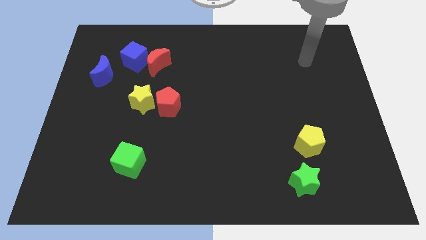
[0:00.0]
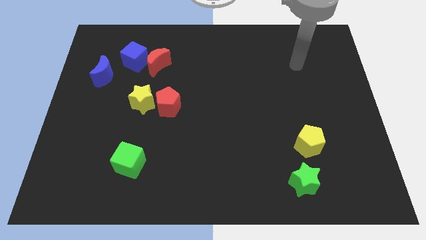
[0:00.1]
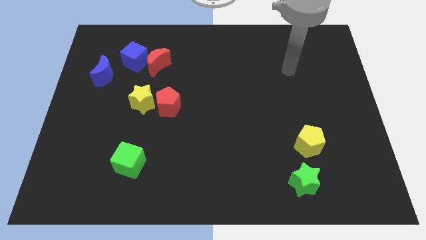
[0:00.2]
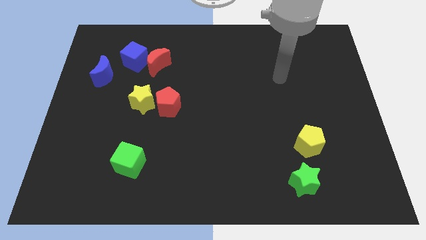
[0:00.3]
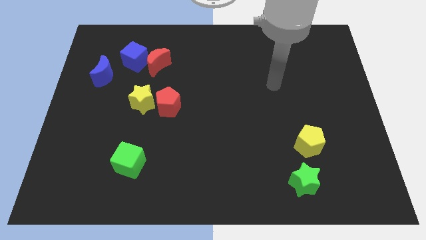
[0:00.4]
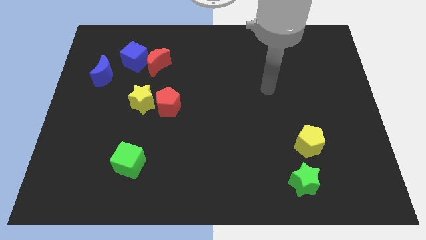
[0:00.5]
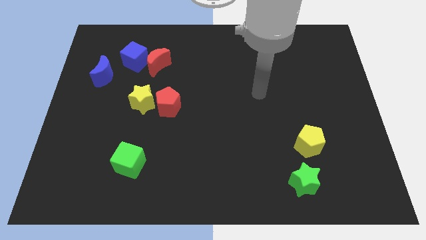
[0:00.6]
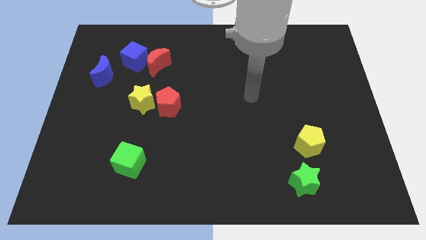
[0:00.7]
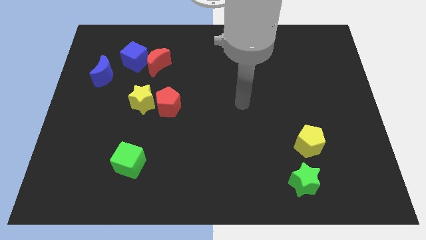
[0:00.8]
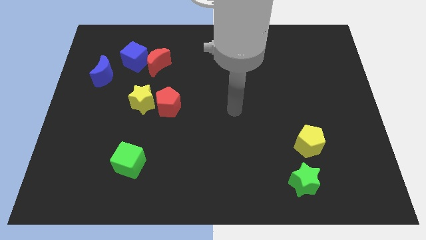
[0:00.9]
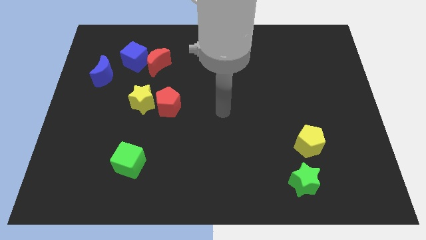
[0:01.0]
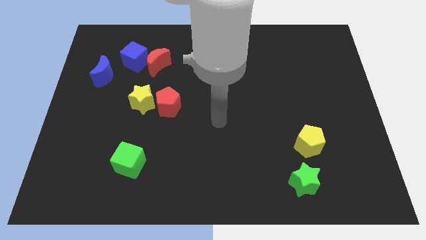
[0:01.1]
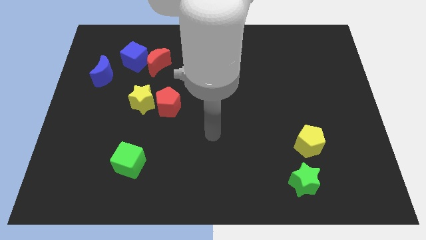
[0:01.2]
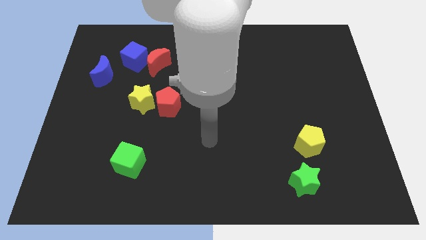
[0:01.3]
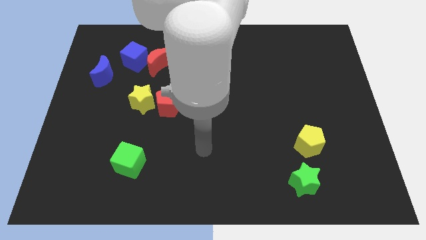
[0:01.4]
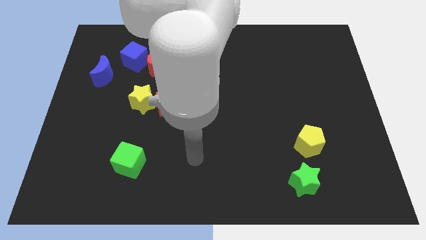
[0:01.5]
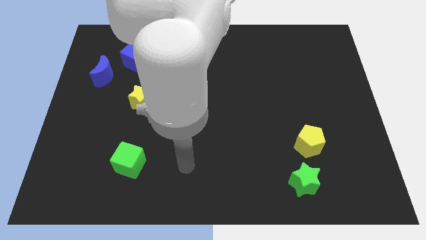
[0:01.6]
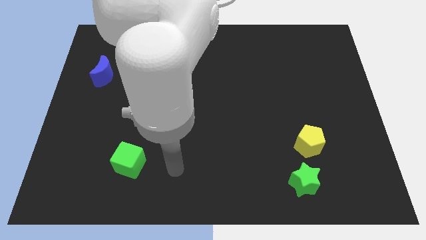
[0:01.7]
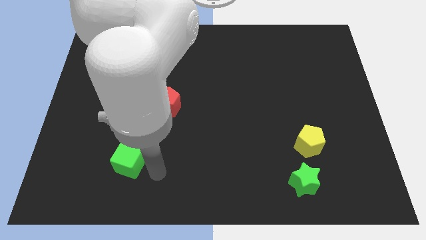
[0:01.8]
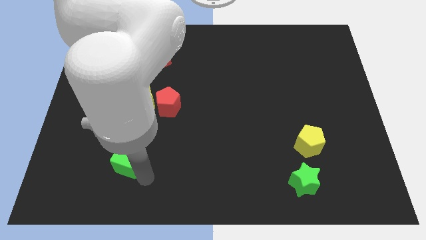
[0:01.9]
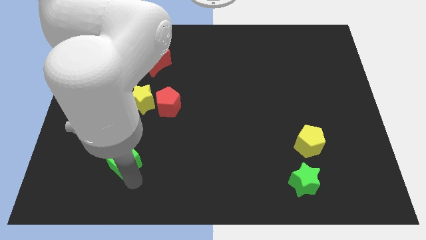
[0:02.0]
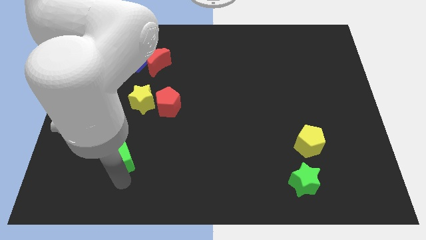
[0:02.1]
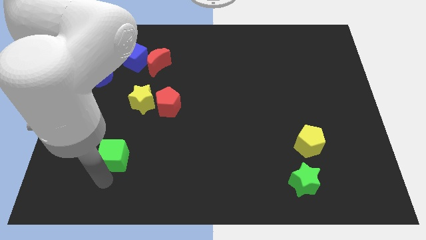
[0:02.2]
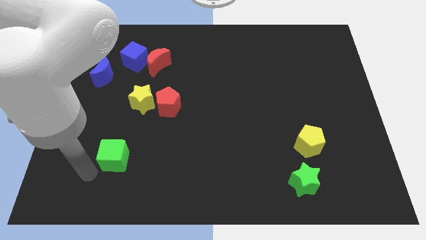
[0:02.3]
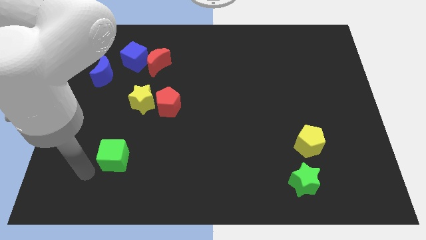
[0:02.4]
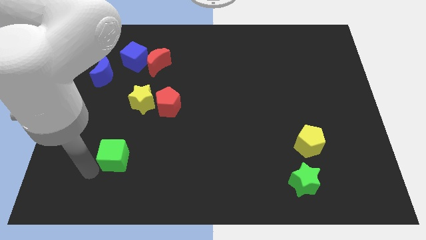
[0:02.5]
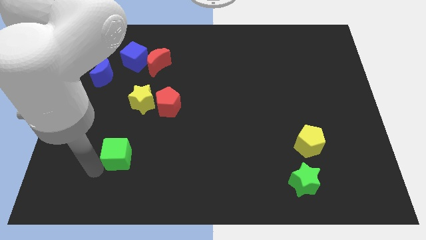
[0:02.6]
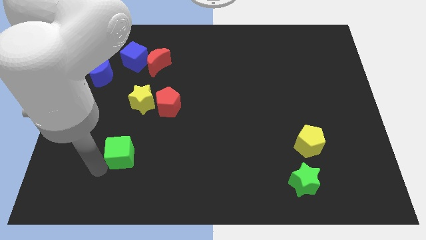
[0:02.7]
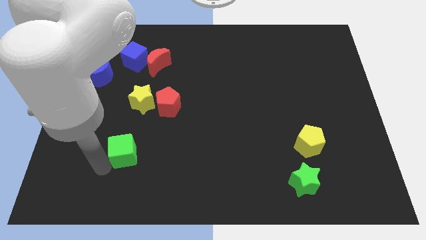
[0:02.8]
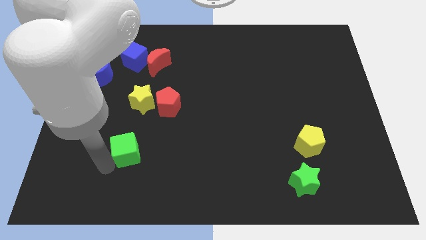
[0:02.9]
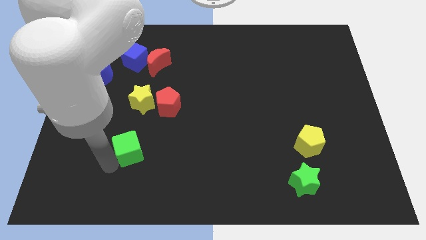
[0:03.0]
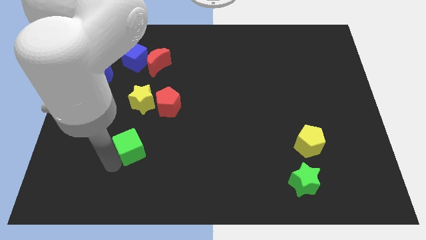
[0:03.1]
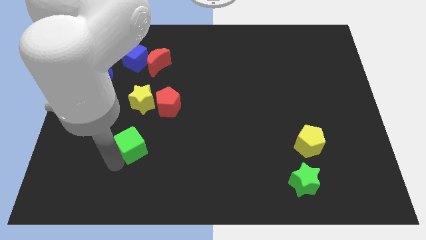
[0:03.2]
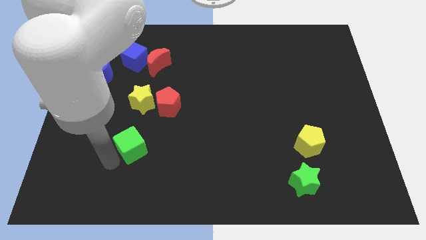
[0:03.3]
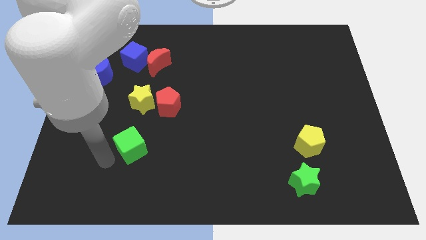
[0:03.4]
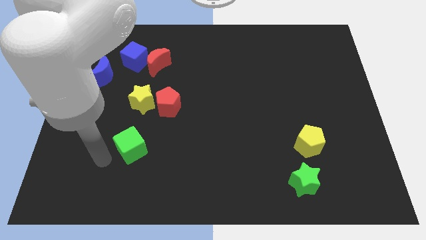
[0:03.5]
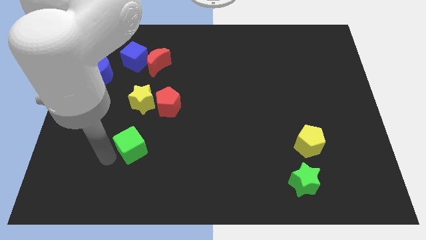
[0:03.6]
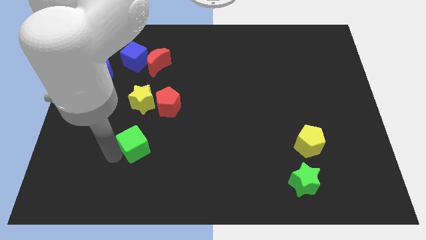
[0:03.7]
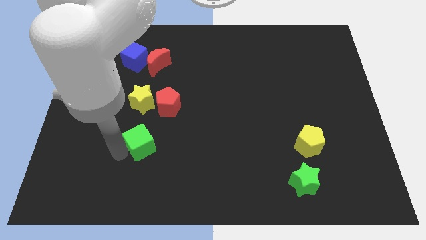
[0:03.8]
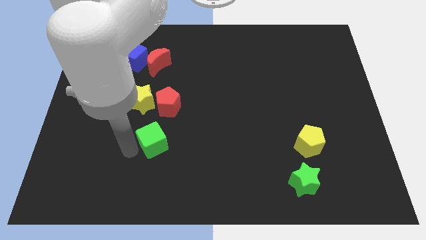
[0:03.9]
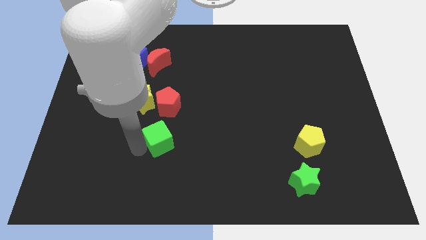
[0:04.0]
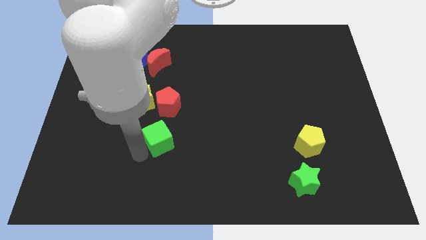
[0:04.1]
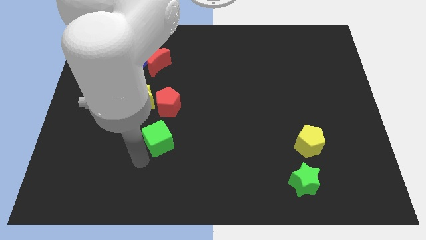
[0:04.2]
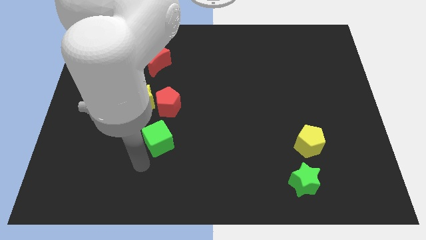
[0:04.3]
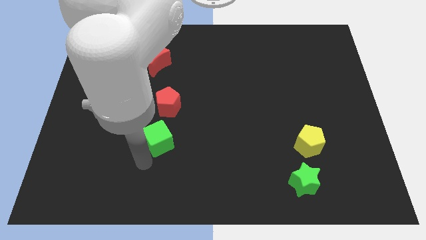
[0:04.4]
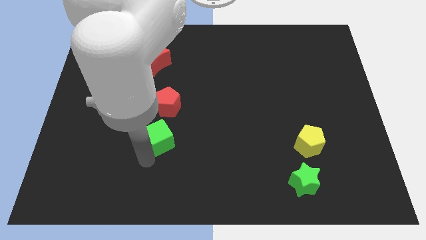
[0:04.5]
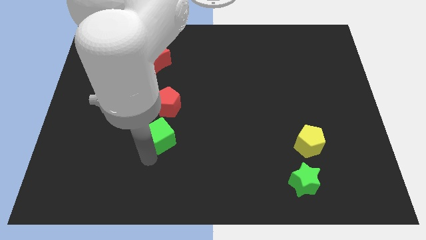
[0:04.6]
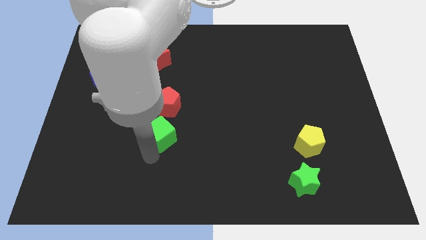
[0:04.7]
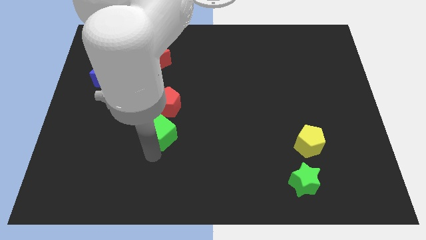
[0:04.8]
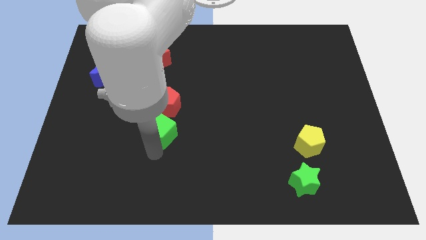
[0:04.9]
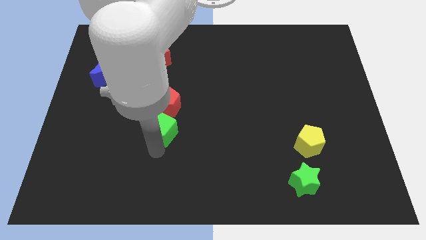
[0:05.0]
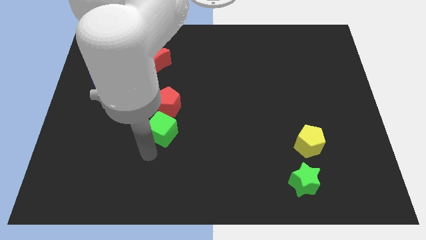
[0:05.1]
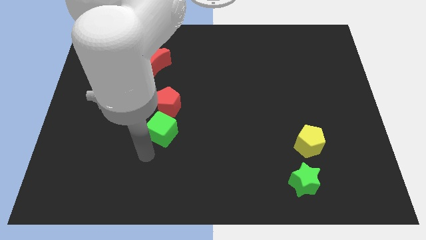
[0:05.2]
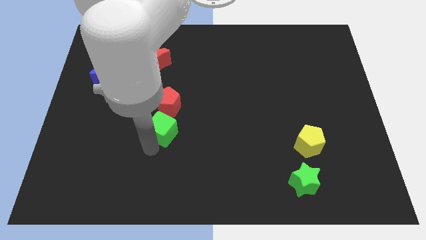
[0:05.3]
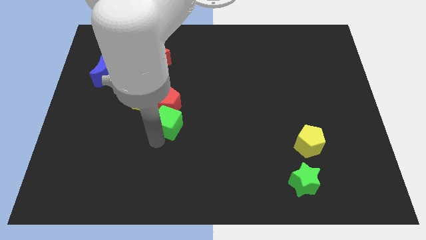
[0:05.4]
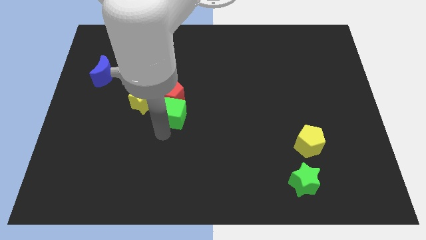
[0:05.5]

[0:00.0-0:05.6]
move the green cube just right of the yellow star
